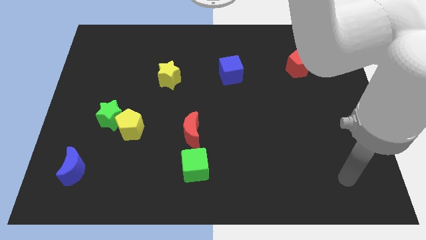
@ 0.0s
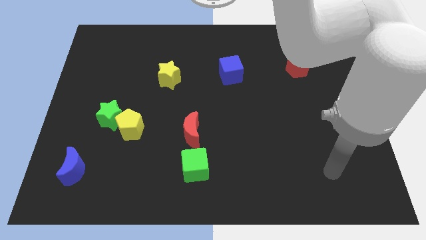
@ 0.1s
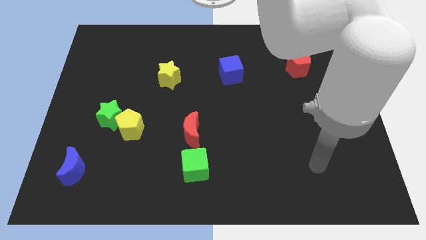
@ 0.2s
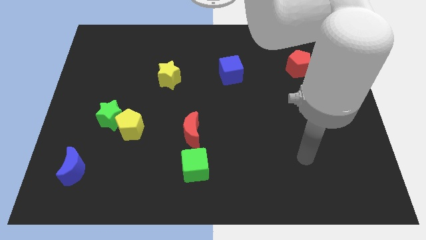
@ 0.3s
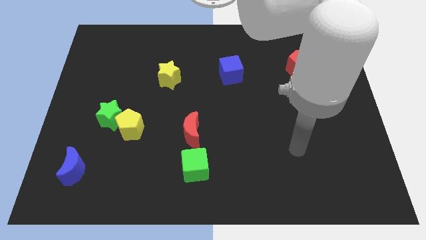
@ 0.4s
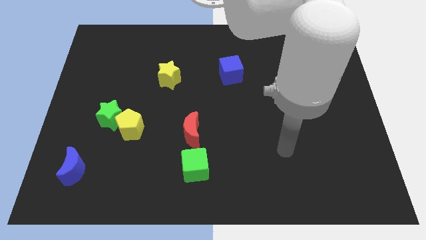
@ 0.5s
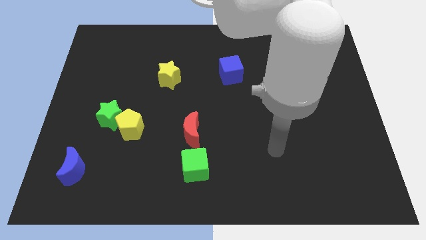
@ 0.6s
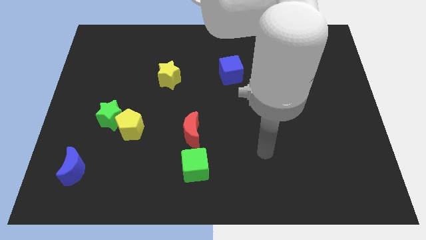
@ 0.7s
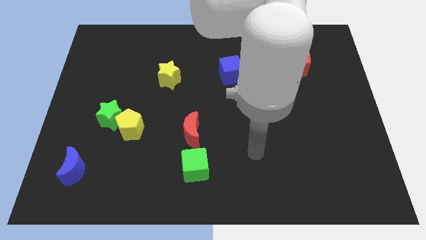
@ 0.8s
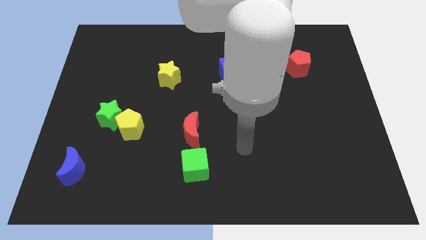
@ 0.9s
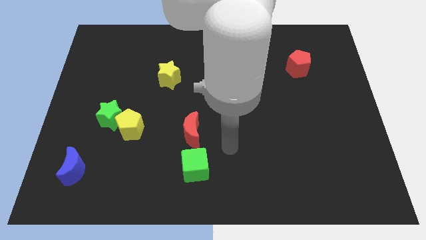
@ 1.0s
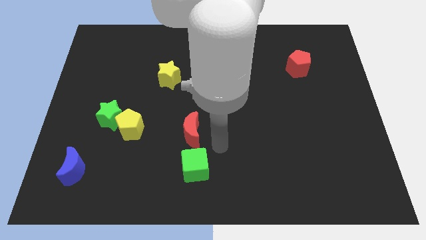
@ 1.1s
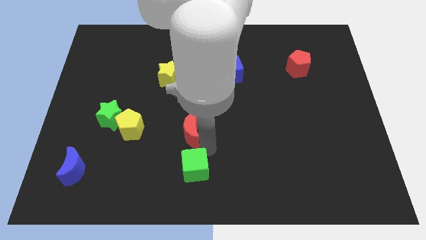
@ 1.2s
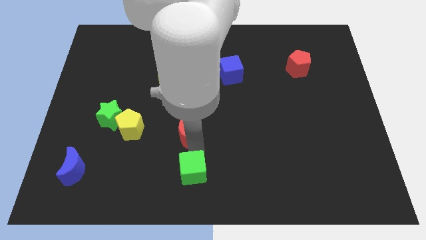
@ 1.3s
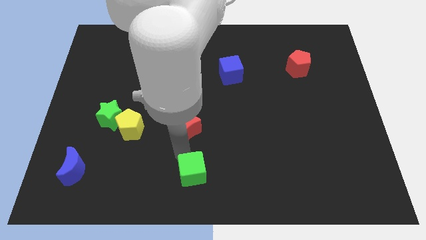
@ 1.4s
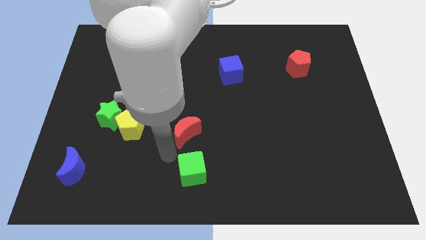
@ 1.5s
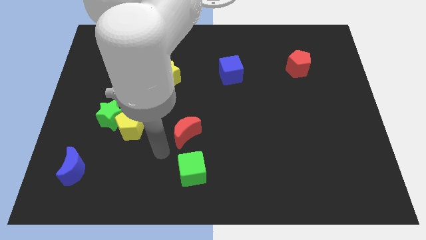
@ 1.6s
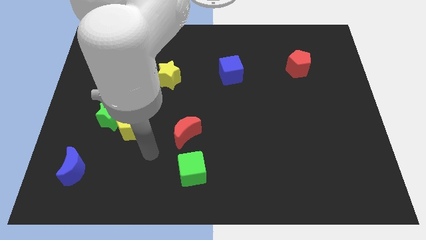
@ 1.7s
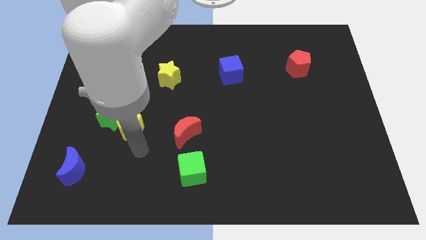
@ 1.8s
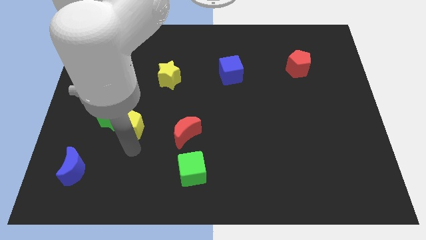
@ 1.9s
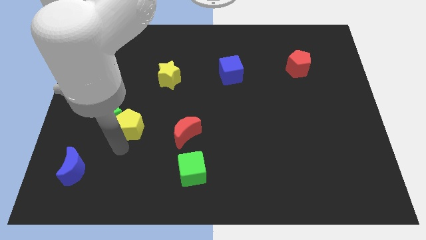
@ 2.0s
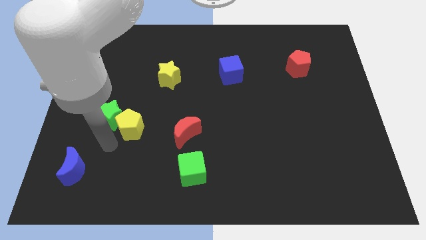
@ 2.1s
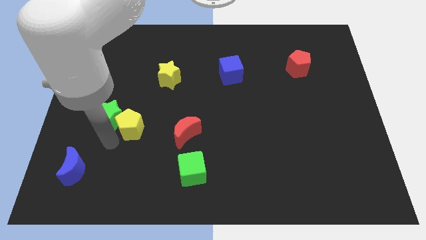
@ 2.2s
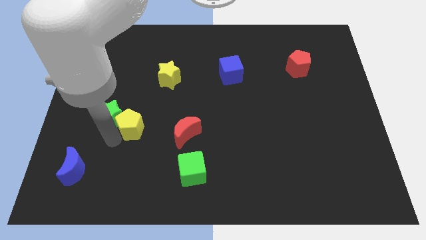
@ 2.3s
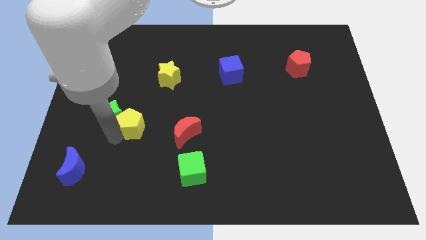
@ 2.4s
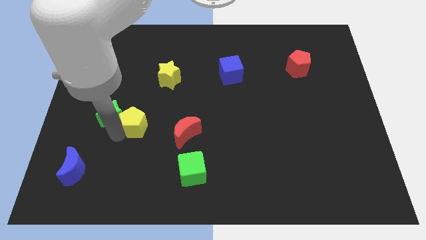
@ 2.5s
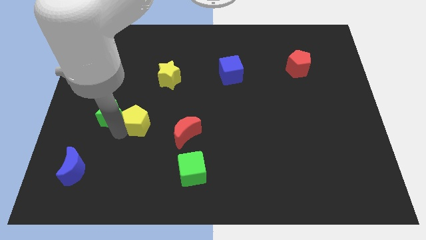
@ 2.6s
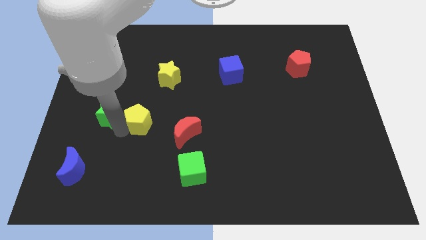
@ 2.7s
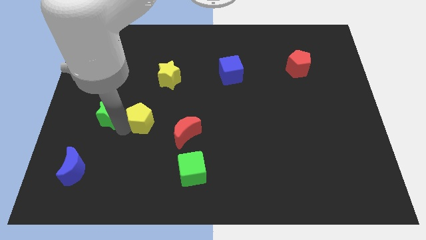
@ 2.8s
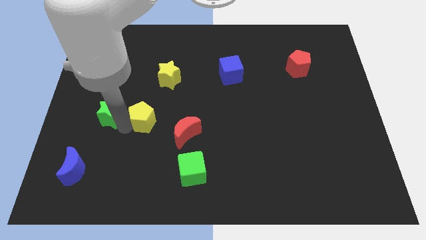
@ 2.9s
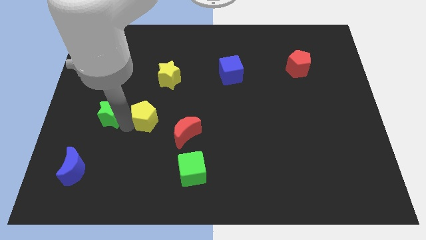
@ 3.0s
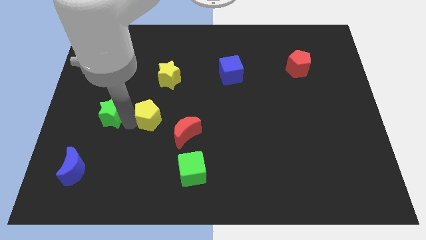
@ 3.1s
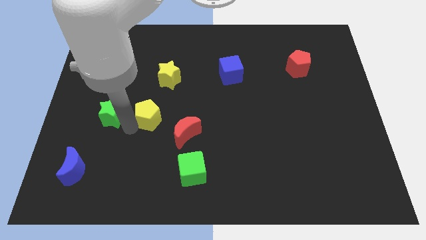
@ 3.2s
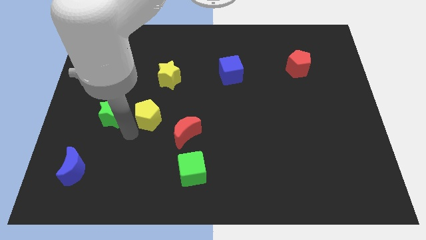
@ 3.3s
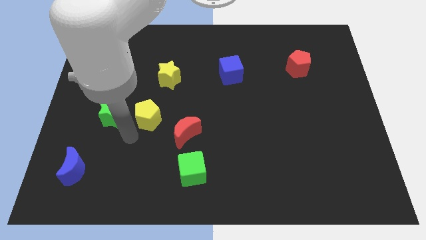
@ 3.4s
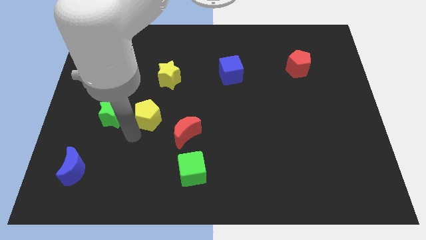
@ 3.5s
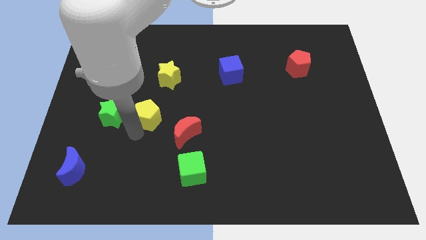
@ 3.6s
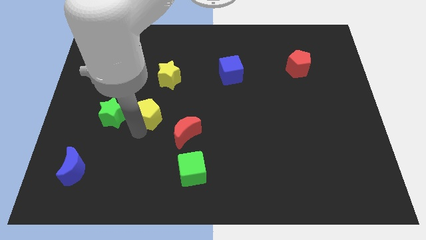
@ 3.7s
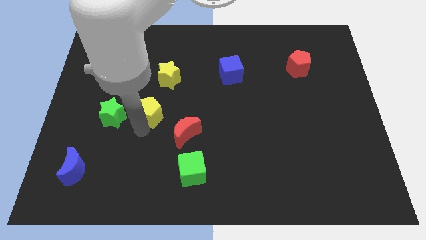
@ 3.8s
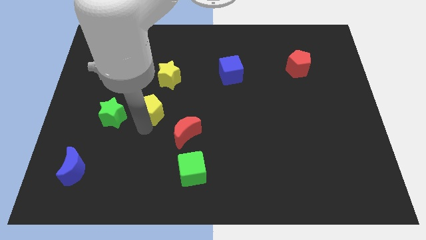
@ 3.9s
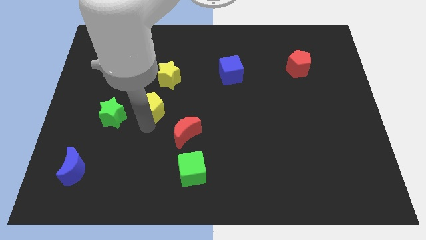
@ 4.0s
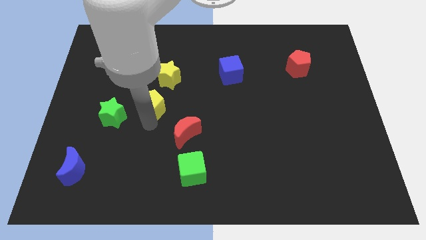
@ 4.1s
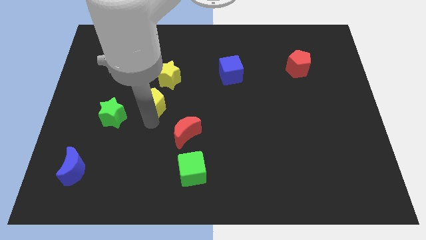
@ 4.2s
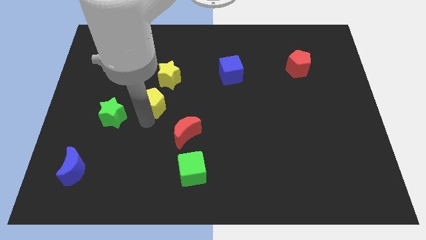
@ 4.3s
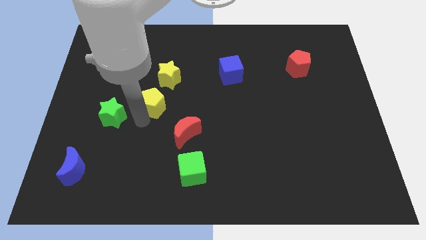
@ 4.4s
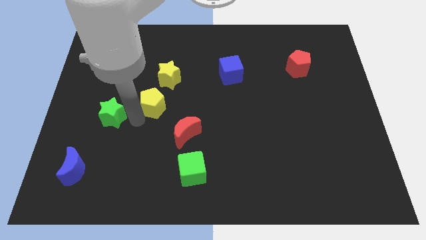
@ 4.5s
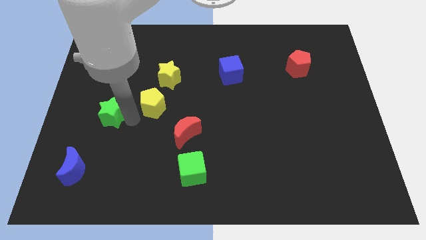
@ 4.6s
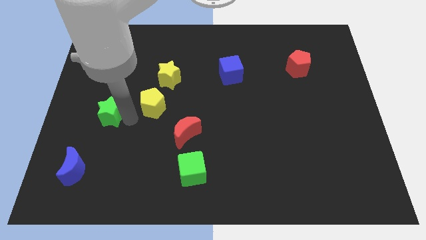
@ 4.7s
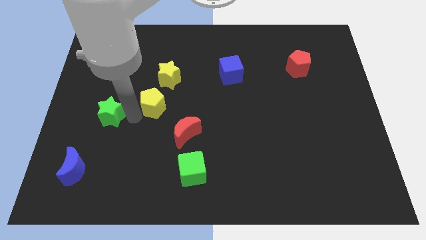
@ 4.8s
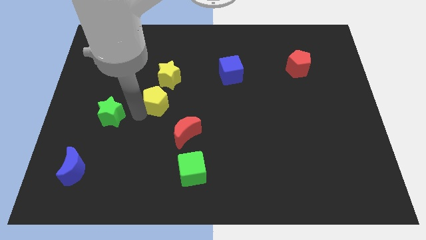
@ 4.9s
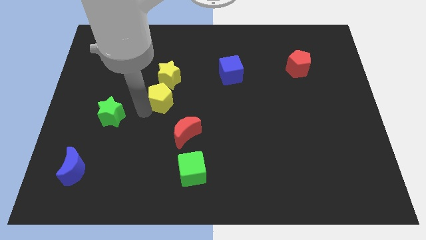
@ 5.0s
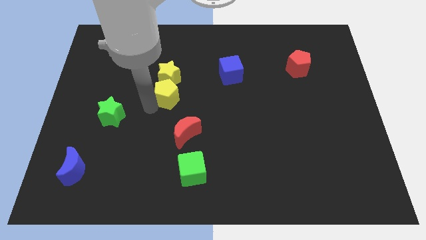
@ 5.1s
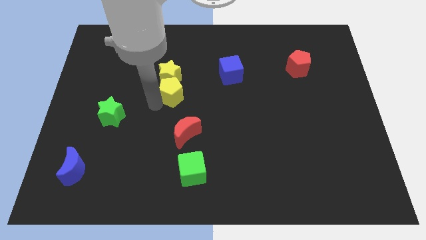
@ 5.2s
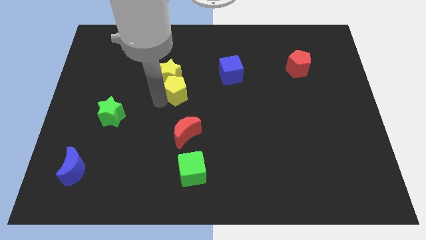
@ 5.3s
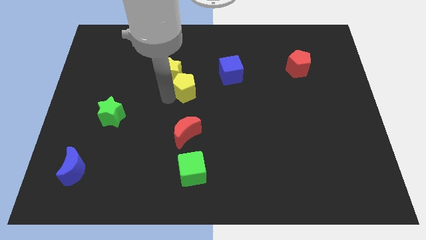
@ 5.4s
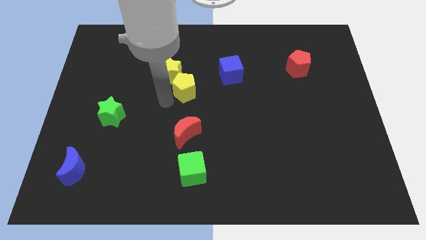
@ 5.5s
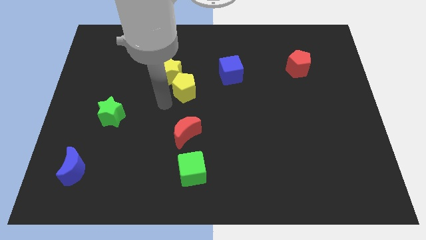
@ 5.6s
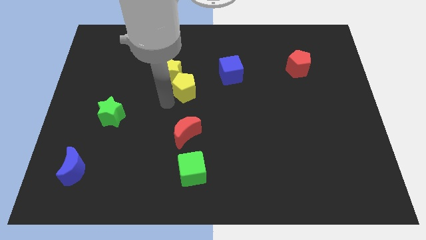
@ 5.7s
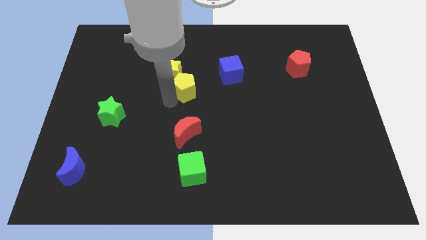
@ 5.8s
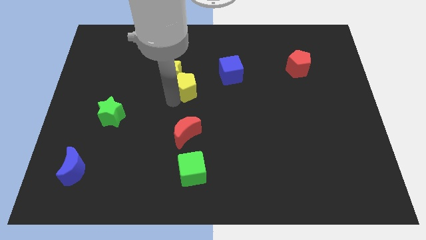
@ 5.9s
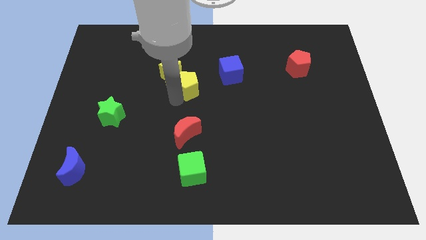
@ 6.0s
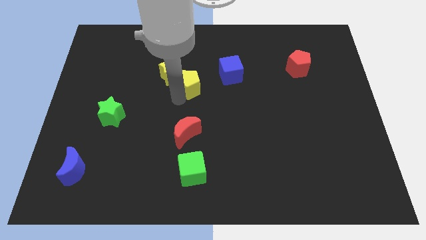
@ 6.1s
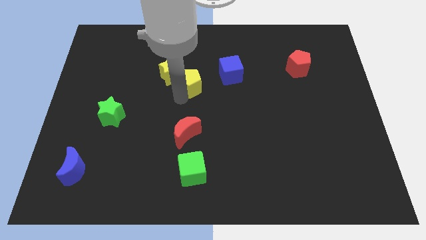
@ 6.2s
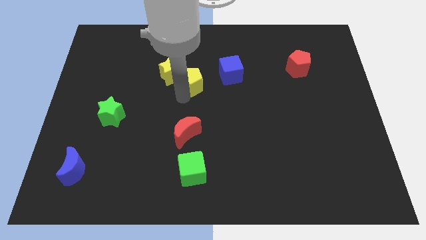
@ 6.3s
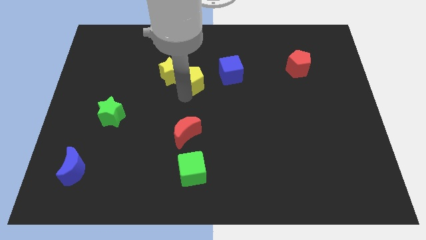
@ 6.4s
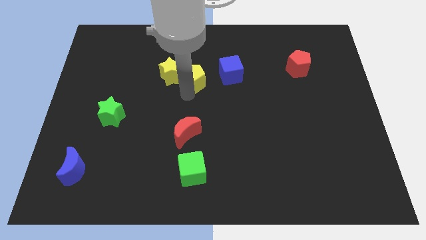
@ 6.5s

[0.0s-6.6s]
slide the yellow pentagon upwards and to the right

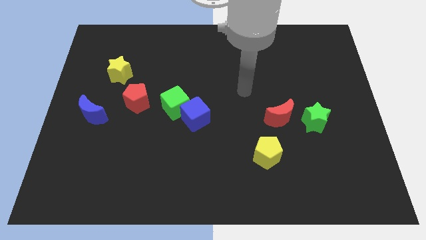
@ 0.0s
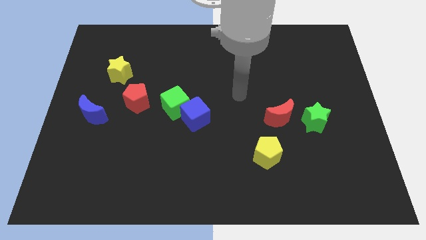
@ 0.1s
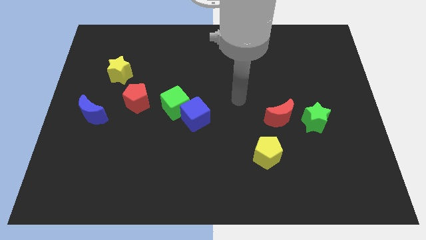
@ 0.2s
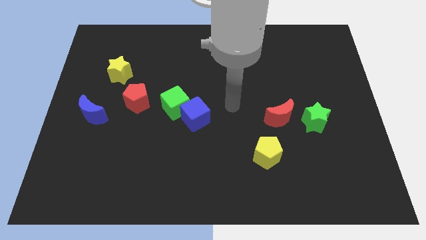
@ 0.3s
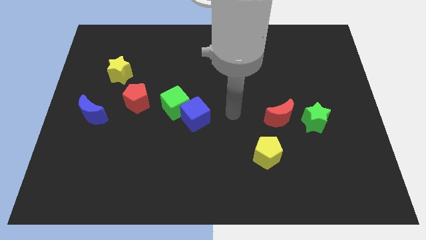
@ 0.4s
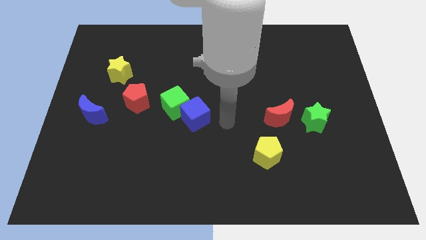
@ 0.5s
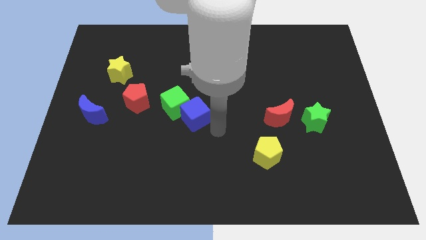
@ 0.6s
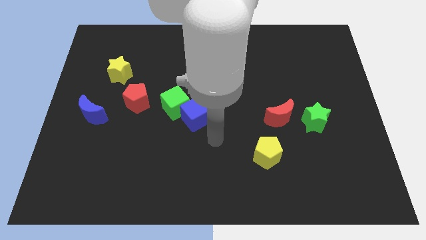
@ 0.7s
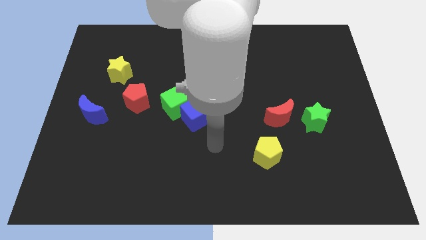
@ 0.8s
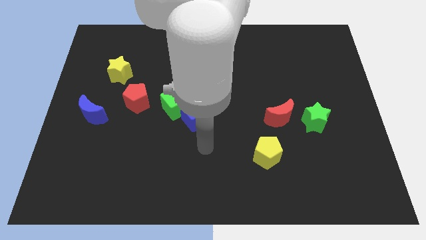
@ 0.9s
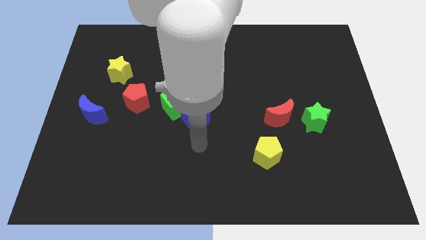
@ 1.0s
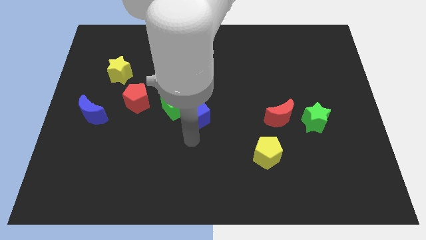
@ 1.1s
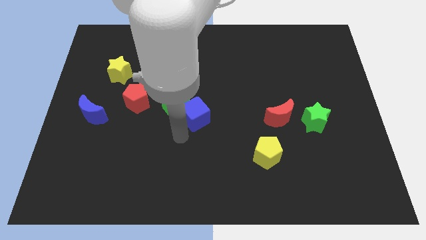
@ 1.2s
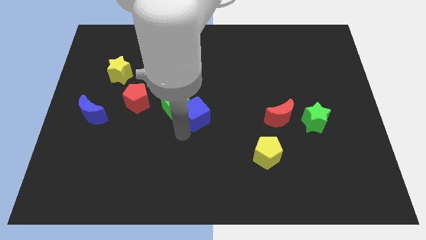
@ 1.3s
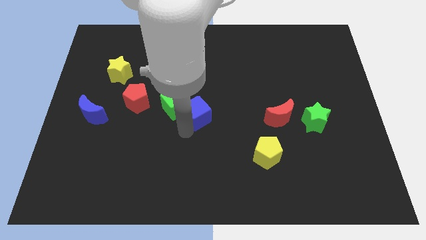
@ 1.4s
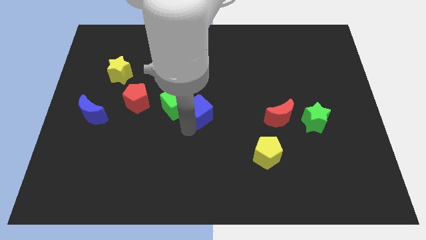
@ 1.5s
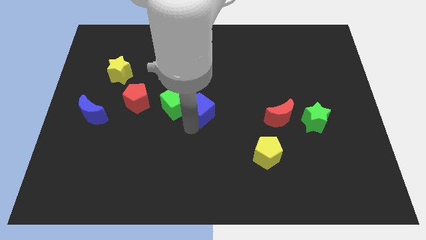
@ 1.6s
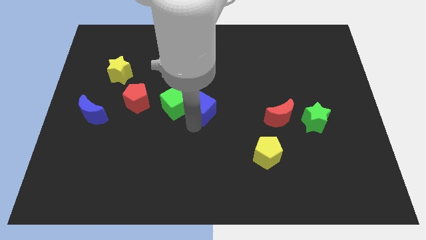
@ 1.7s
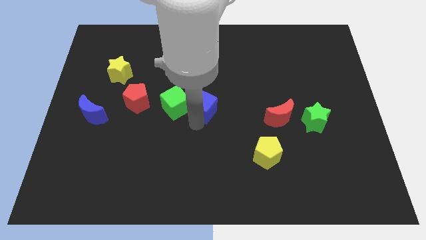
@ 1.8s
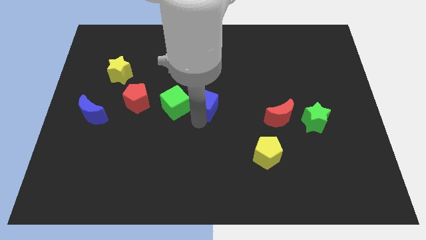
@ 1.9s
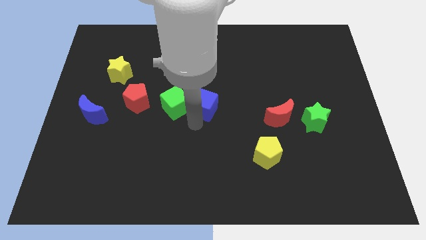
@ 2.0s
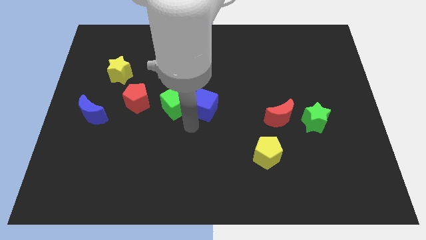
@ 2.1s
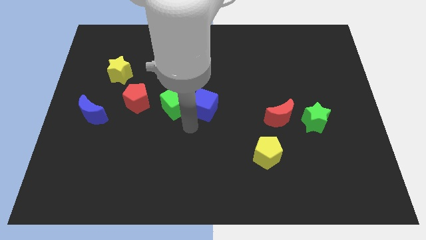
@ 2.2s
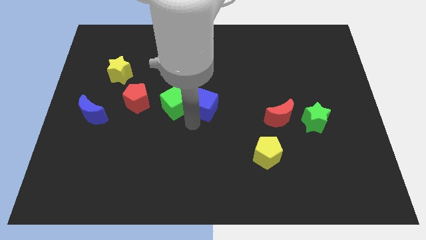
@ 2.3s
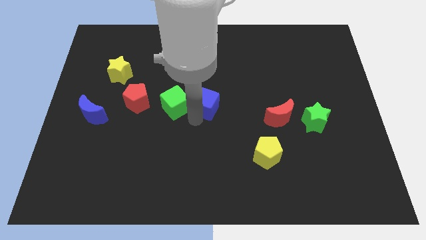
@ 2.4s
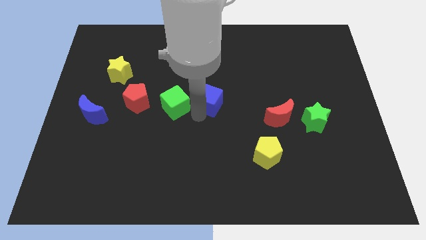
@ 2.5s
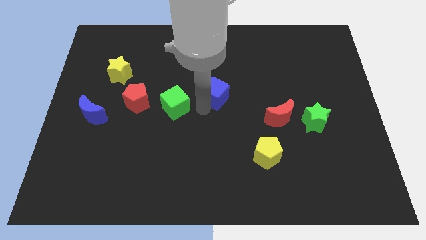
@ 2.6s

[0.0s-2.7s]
slightly move the blue cube up and right diagonally
